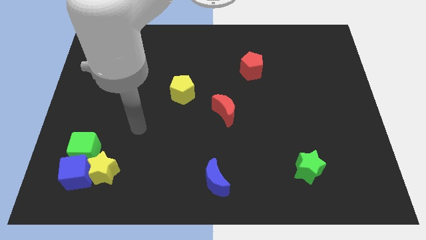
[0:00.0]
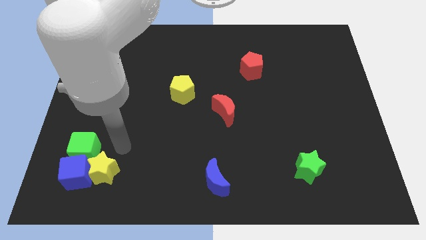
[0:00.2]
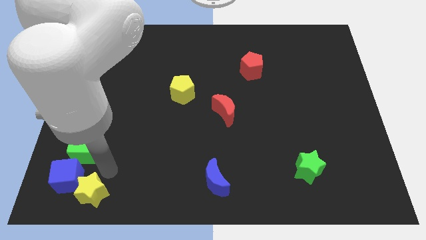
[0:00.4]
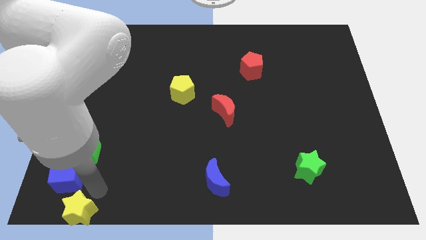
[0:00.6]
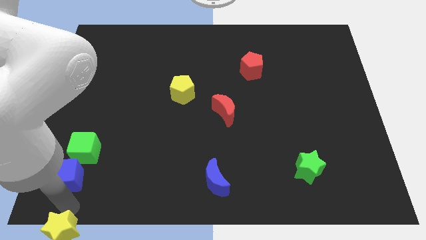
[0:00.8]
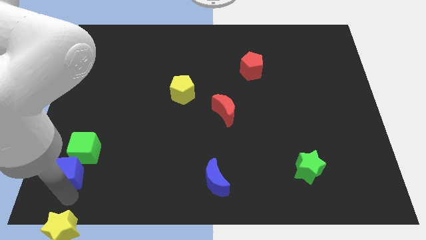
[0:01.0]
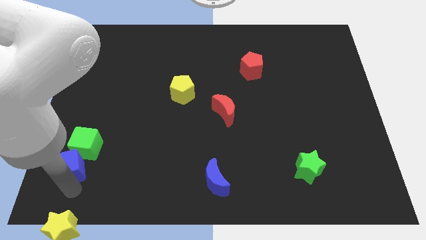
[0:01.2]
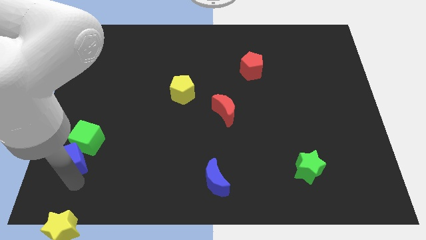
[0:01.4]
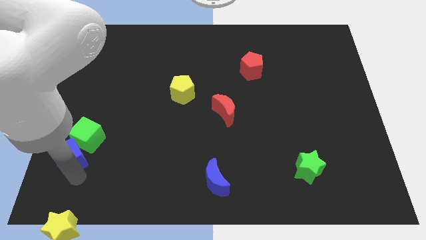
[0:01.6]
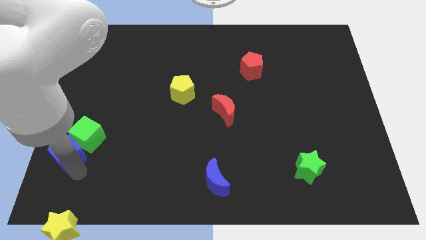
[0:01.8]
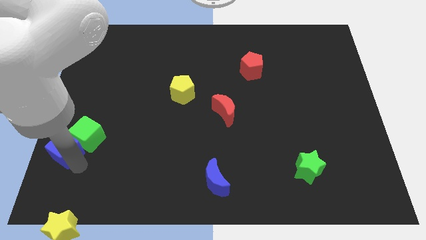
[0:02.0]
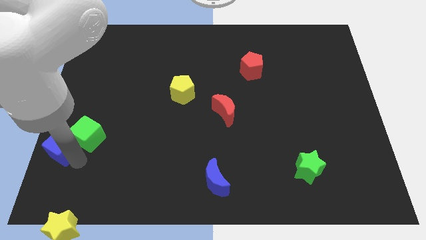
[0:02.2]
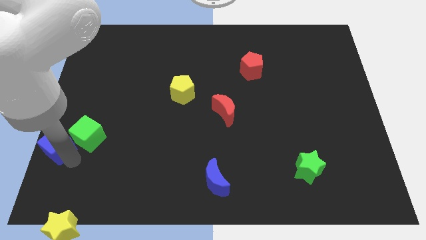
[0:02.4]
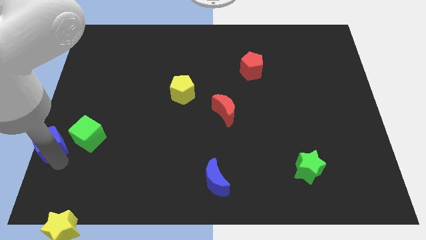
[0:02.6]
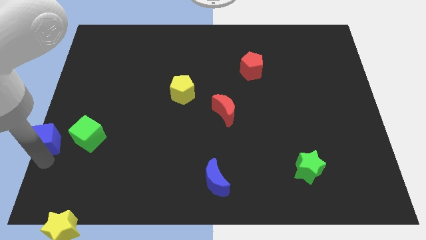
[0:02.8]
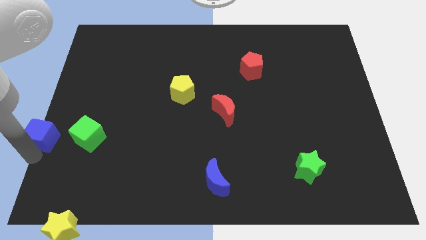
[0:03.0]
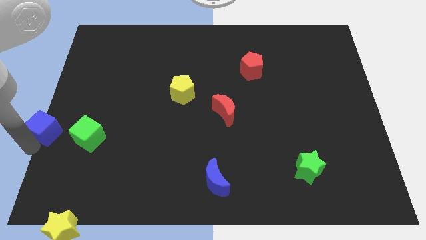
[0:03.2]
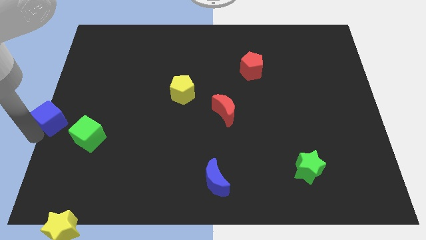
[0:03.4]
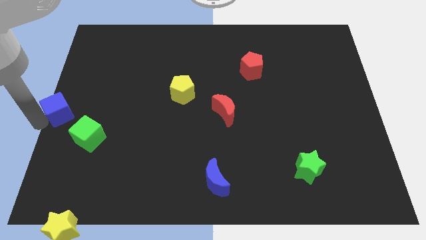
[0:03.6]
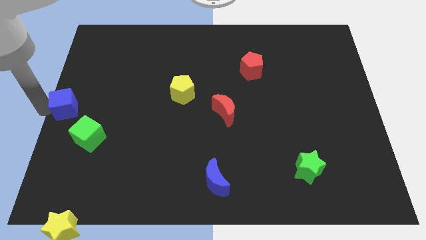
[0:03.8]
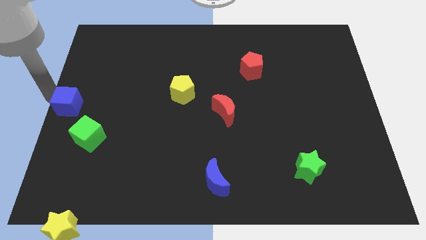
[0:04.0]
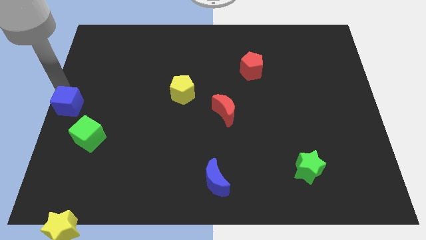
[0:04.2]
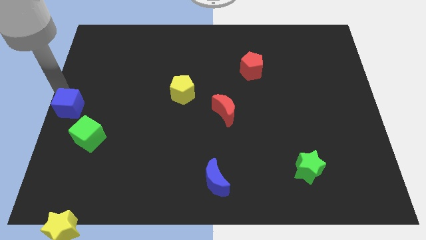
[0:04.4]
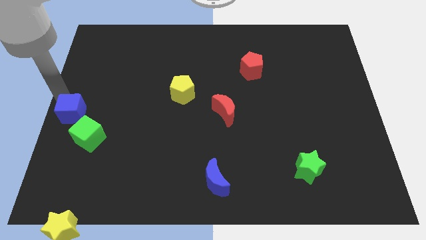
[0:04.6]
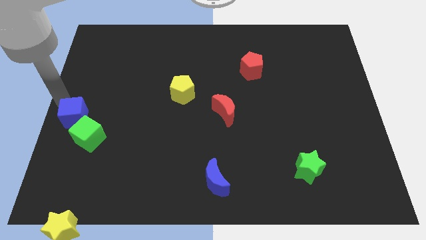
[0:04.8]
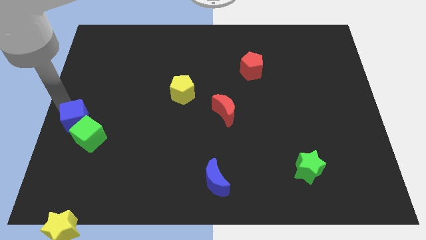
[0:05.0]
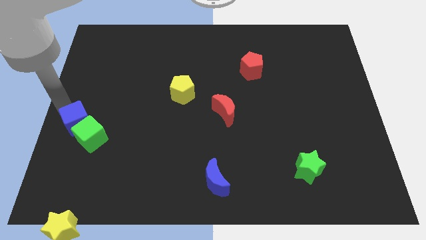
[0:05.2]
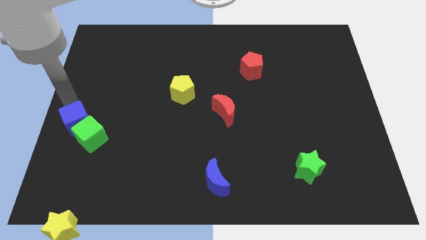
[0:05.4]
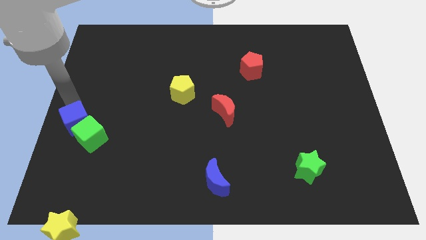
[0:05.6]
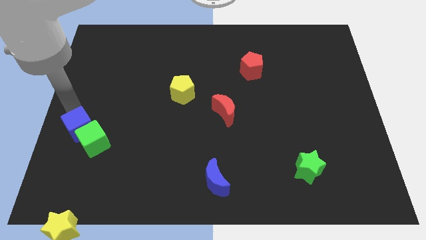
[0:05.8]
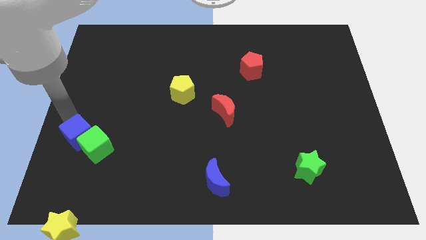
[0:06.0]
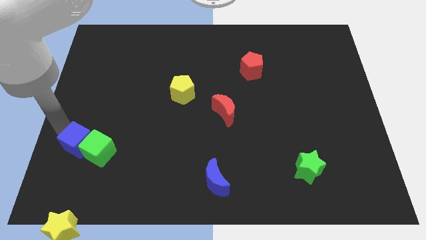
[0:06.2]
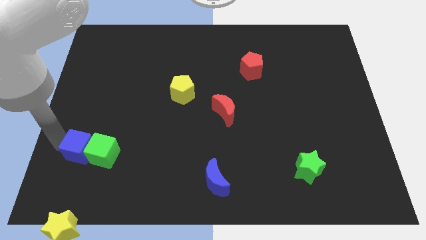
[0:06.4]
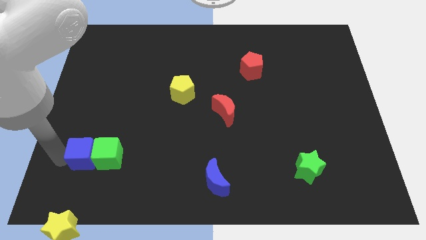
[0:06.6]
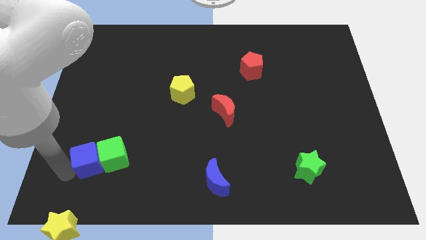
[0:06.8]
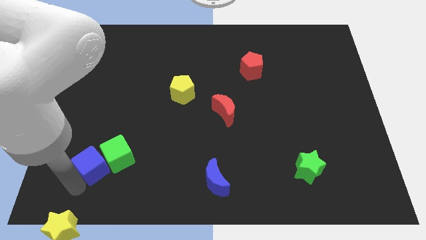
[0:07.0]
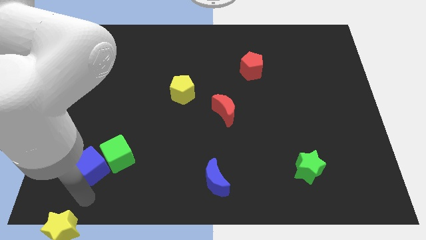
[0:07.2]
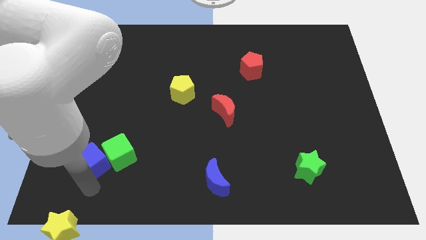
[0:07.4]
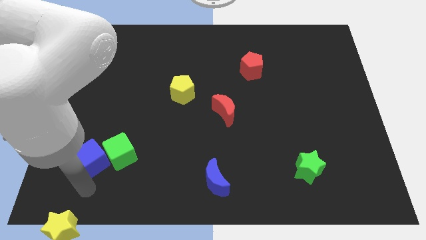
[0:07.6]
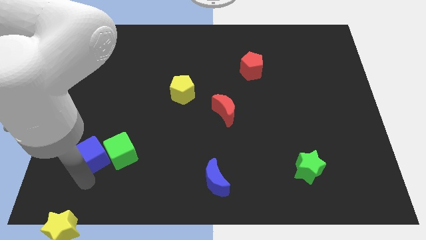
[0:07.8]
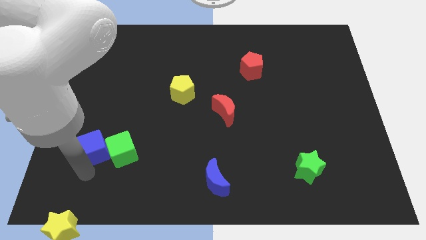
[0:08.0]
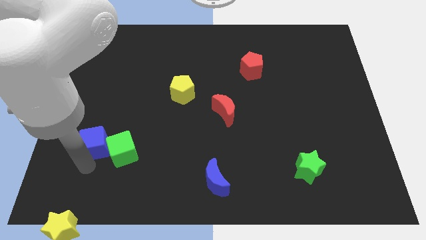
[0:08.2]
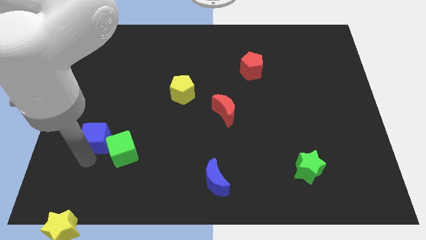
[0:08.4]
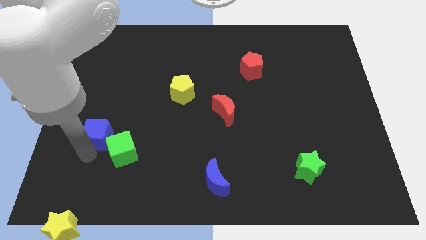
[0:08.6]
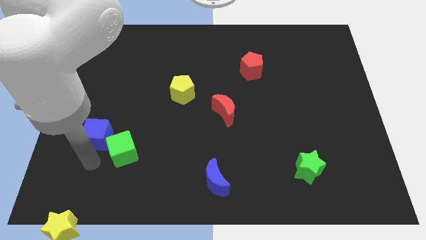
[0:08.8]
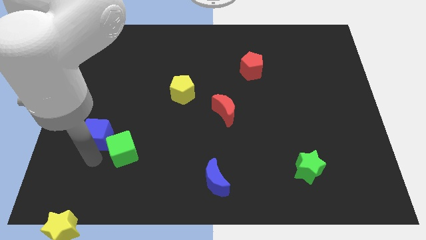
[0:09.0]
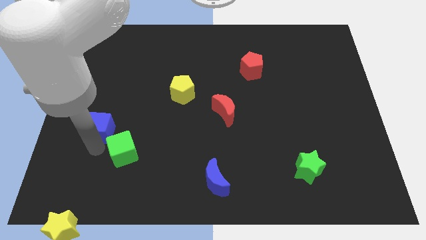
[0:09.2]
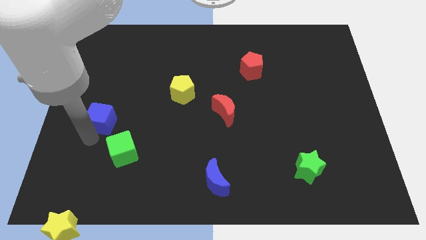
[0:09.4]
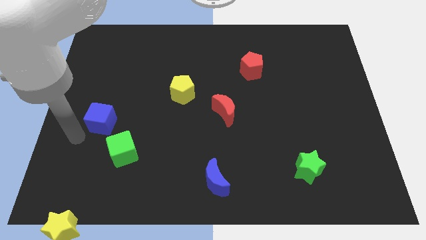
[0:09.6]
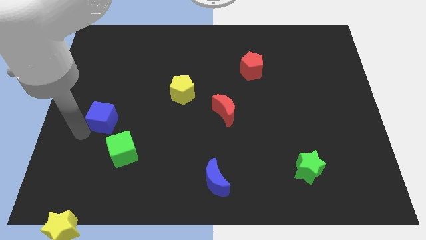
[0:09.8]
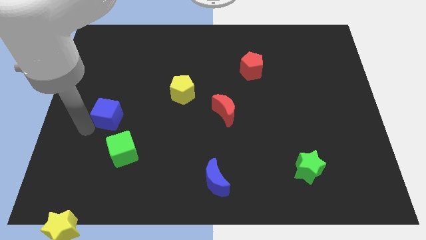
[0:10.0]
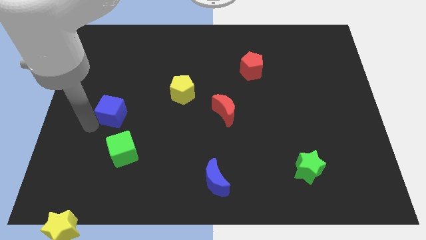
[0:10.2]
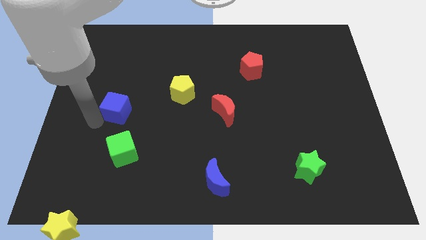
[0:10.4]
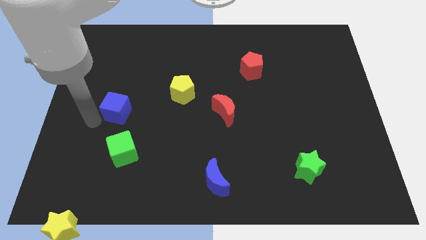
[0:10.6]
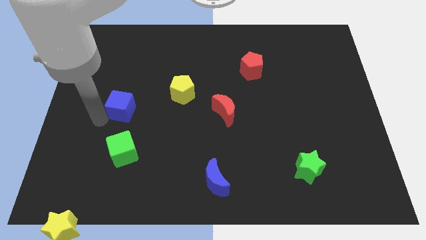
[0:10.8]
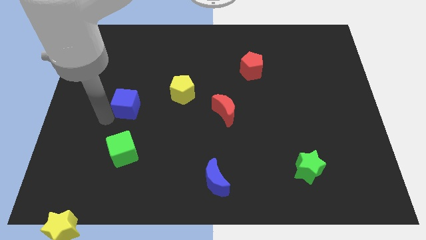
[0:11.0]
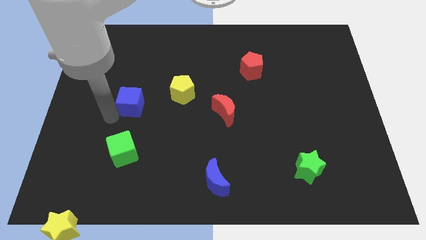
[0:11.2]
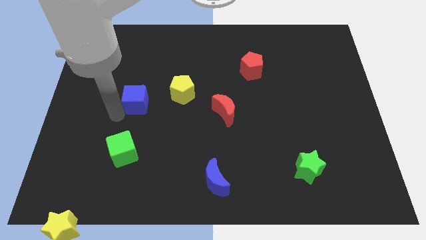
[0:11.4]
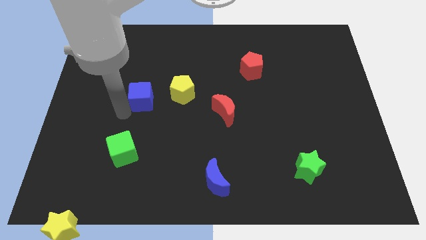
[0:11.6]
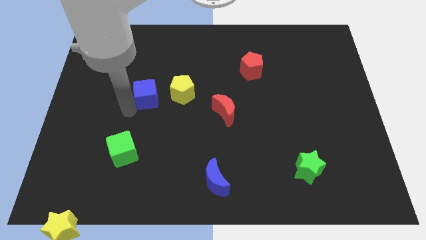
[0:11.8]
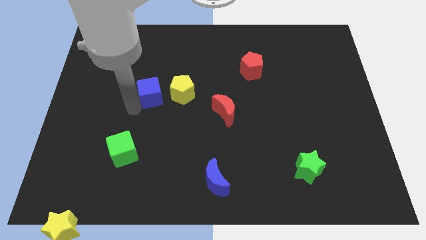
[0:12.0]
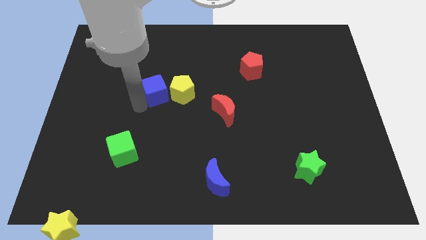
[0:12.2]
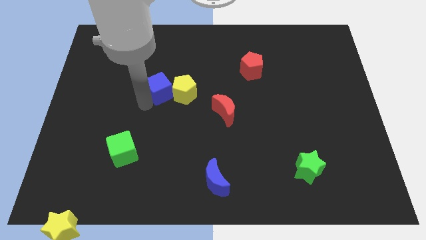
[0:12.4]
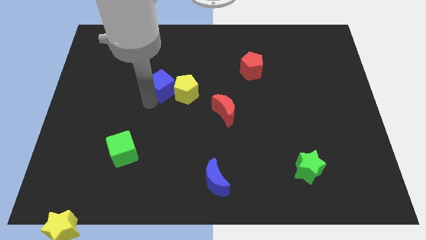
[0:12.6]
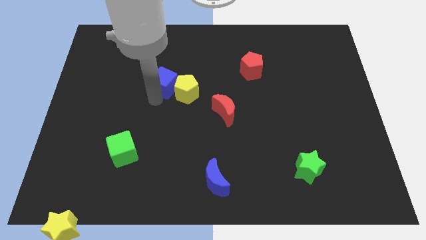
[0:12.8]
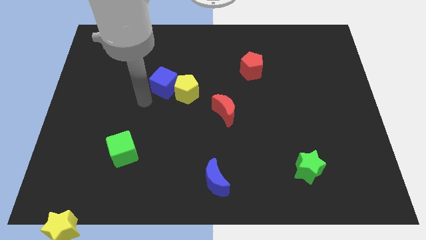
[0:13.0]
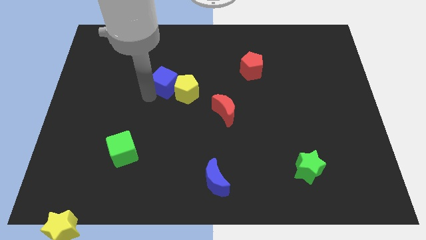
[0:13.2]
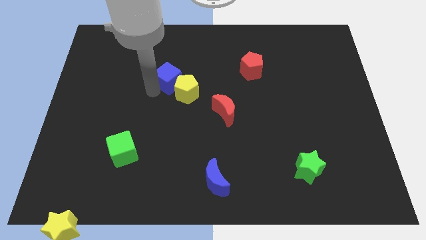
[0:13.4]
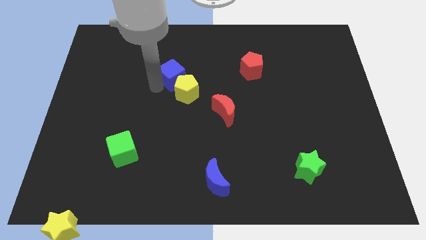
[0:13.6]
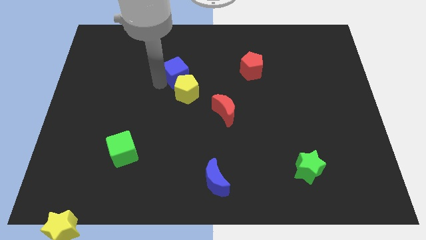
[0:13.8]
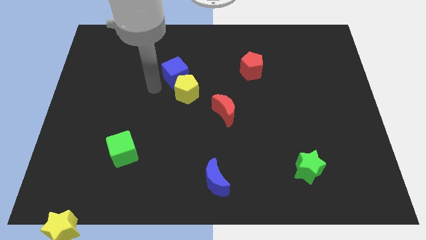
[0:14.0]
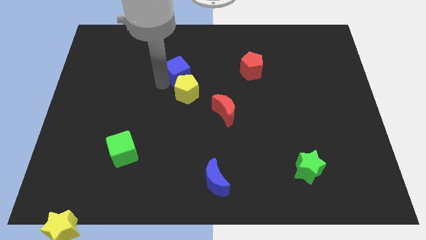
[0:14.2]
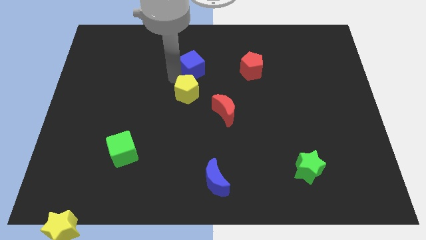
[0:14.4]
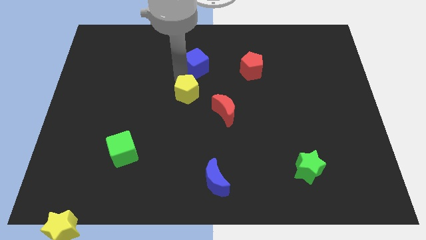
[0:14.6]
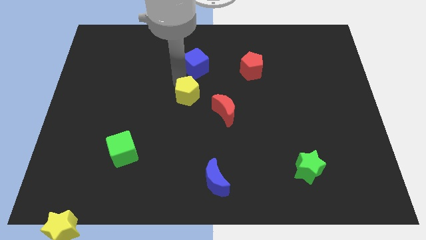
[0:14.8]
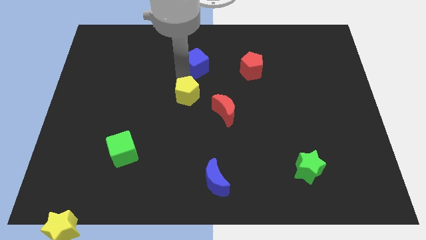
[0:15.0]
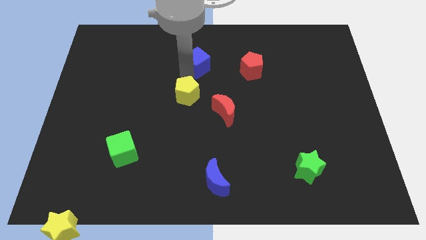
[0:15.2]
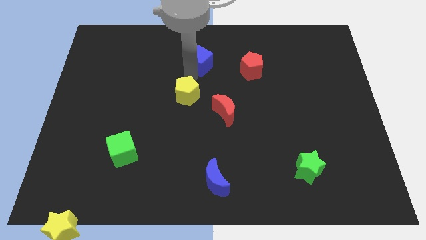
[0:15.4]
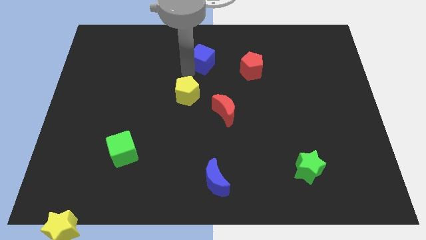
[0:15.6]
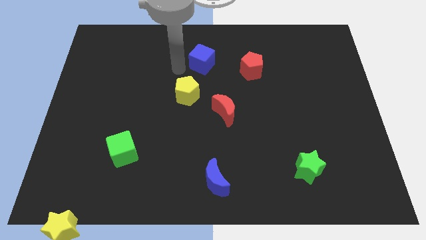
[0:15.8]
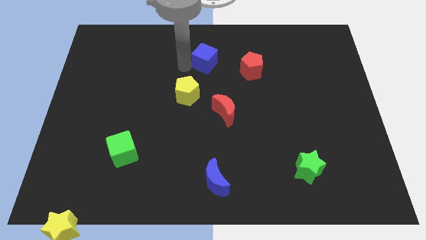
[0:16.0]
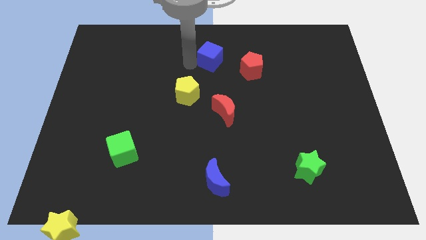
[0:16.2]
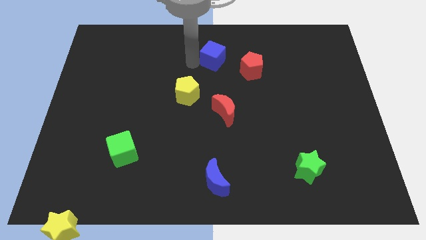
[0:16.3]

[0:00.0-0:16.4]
slide the blue cube to the top left side of the red pentagon
